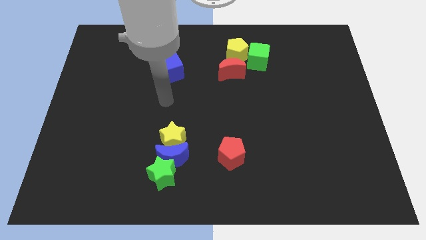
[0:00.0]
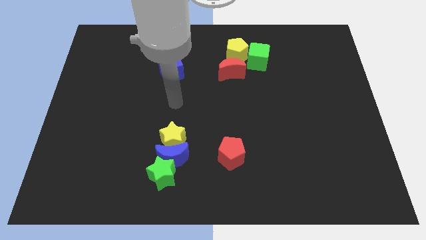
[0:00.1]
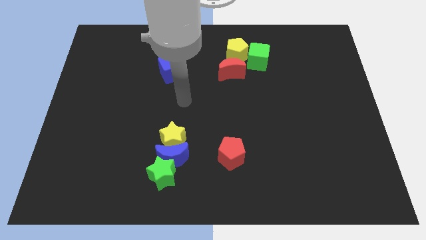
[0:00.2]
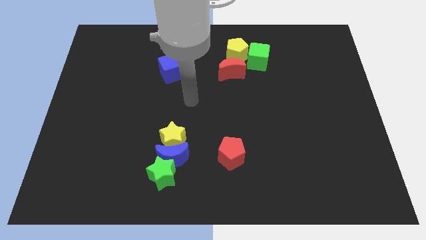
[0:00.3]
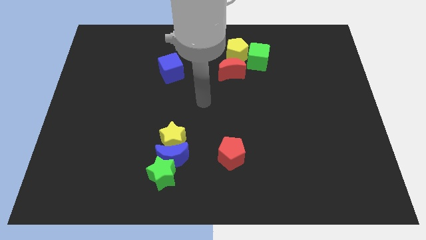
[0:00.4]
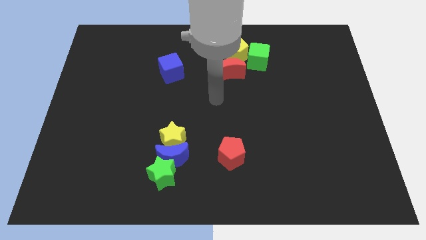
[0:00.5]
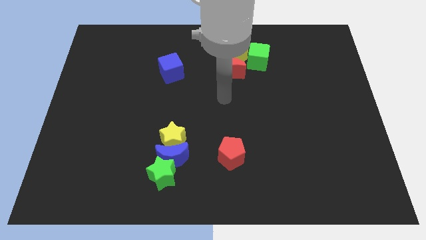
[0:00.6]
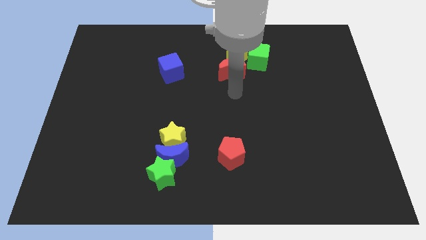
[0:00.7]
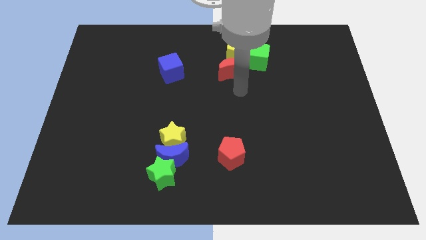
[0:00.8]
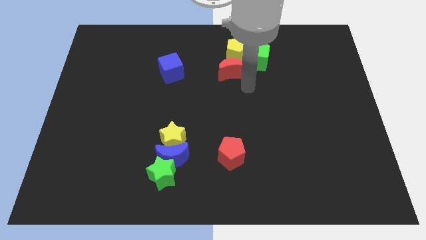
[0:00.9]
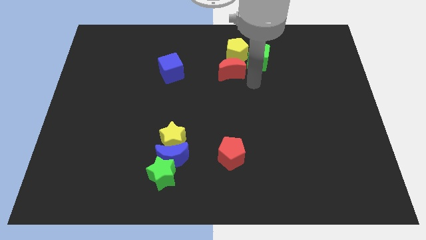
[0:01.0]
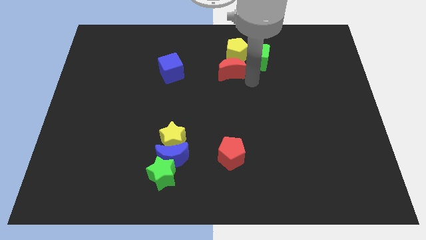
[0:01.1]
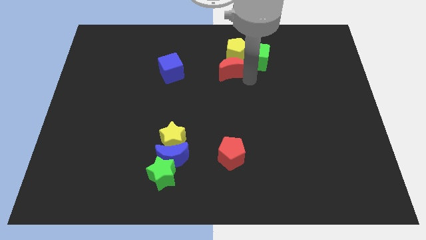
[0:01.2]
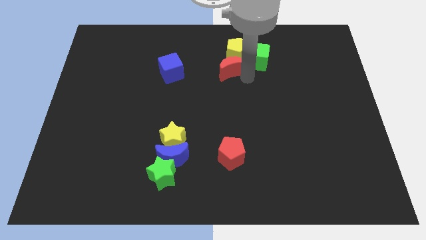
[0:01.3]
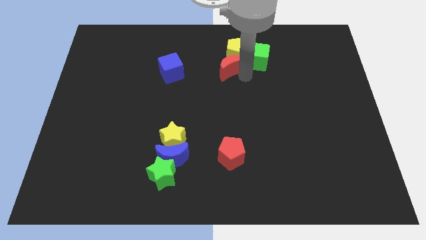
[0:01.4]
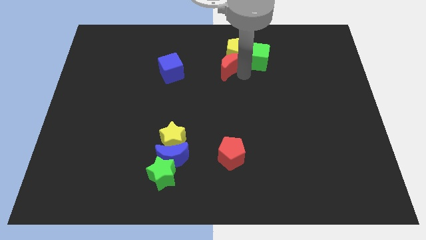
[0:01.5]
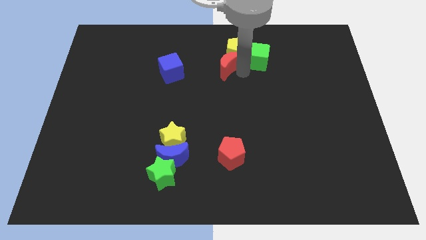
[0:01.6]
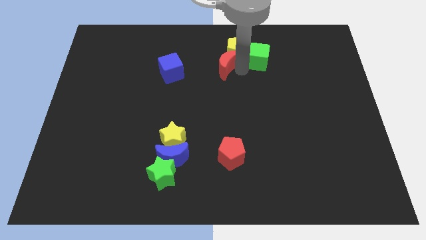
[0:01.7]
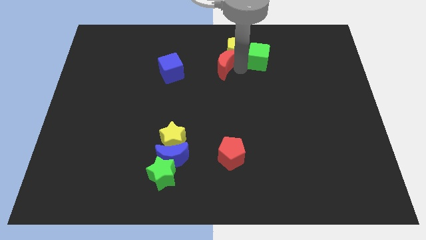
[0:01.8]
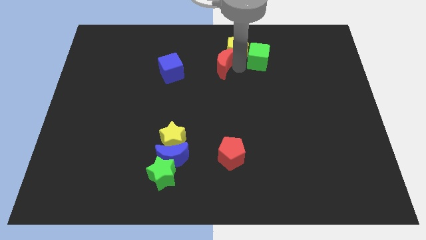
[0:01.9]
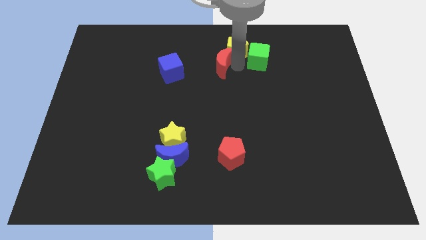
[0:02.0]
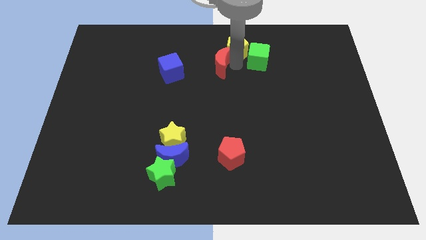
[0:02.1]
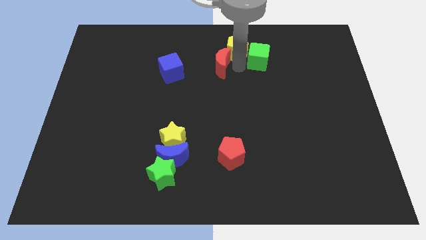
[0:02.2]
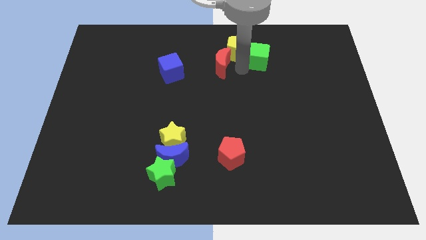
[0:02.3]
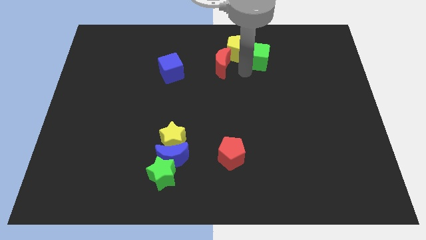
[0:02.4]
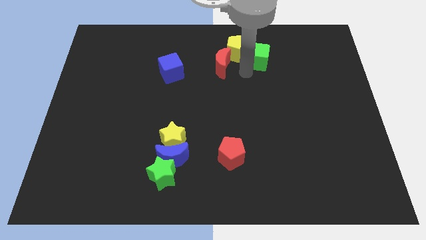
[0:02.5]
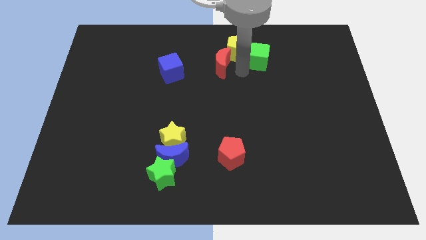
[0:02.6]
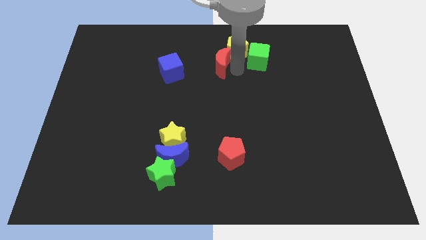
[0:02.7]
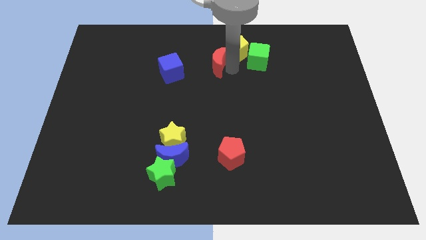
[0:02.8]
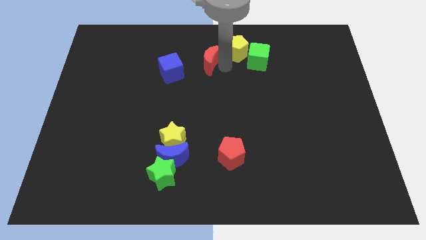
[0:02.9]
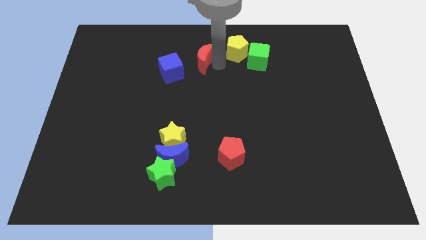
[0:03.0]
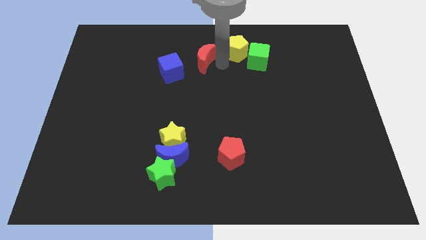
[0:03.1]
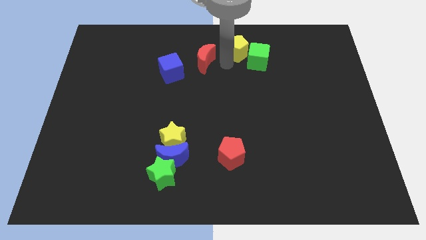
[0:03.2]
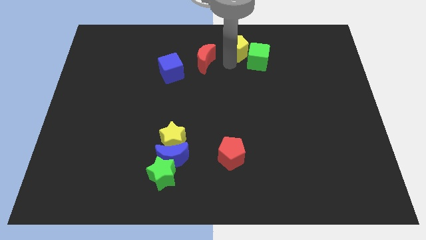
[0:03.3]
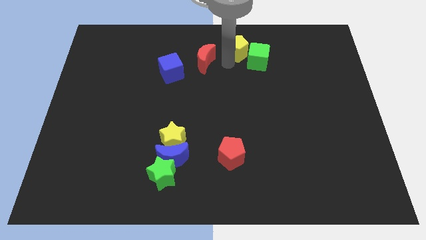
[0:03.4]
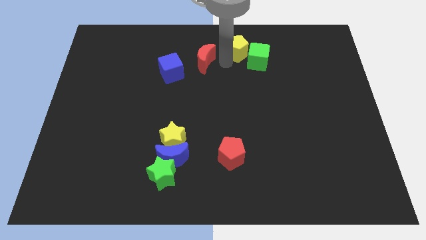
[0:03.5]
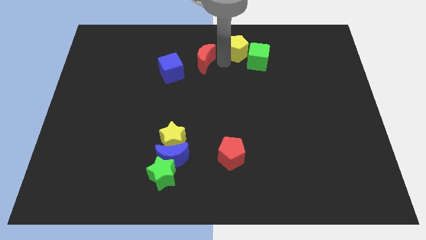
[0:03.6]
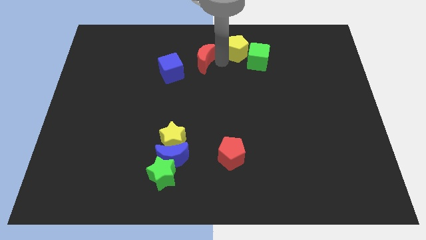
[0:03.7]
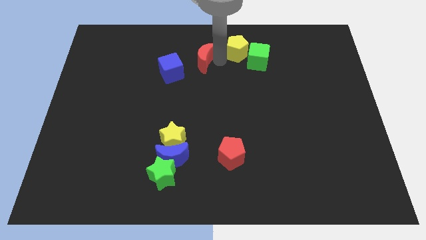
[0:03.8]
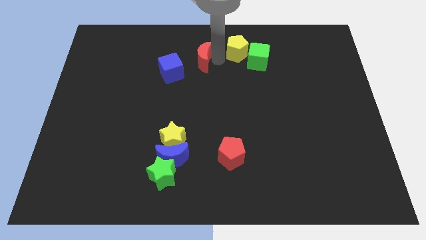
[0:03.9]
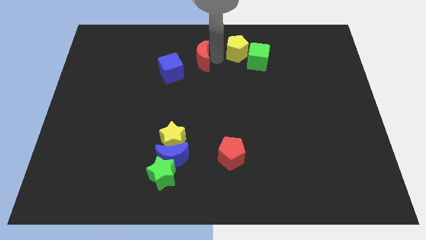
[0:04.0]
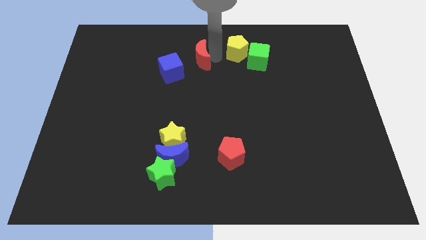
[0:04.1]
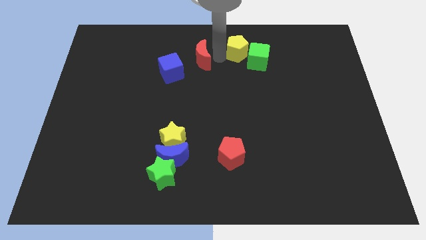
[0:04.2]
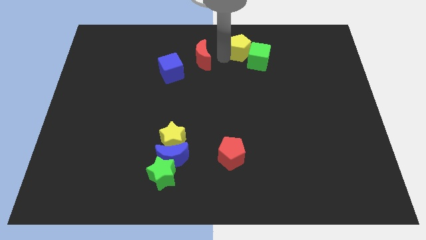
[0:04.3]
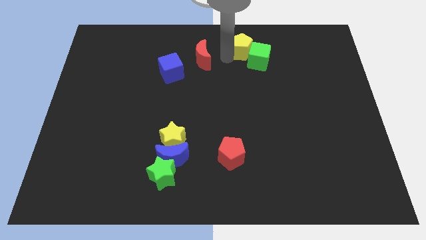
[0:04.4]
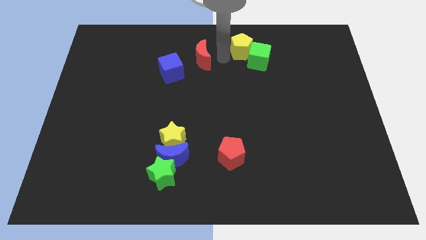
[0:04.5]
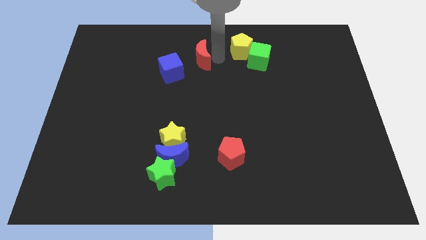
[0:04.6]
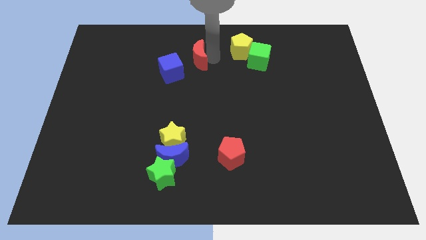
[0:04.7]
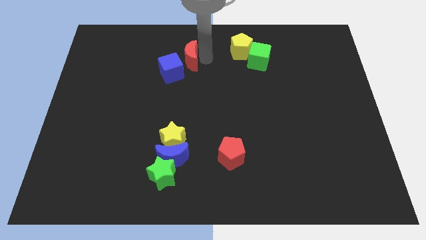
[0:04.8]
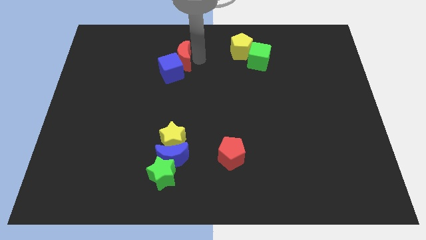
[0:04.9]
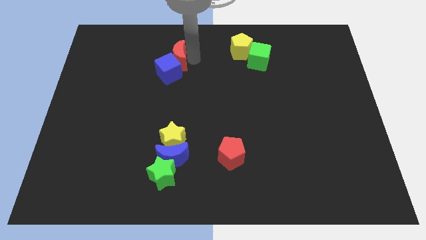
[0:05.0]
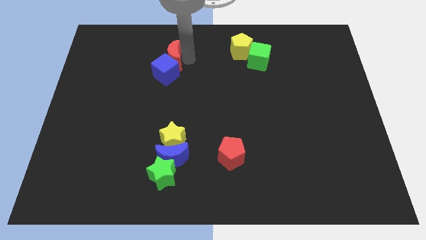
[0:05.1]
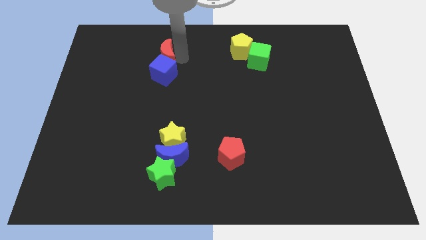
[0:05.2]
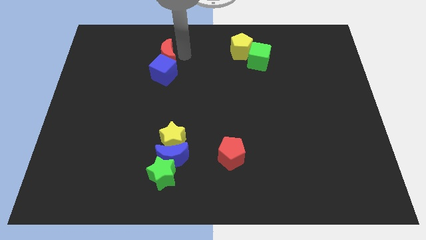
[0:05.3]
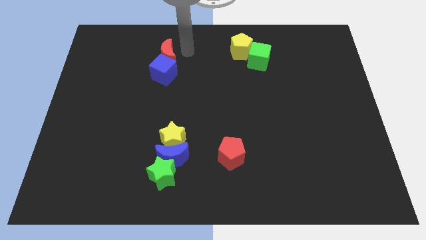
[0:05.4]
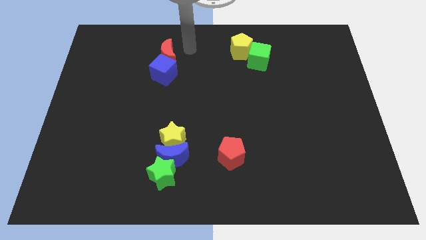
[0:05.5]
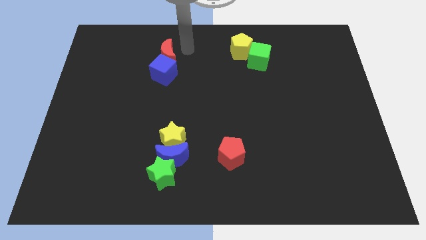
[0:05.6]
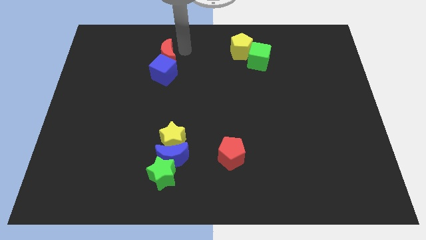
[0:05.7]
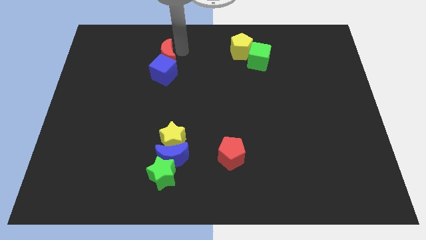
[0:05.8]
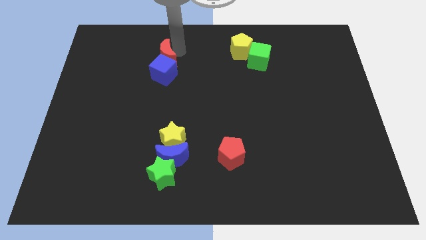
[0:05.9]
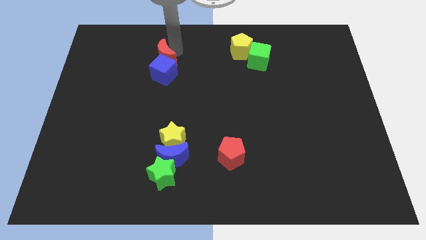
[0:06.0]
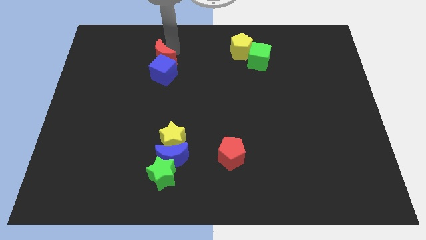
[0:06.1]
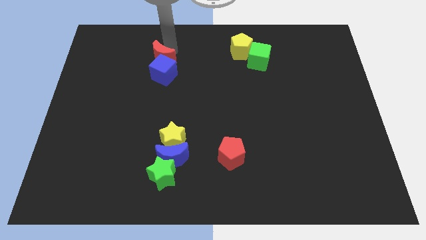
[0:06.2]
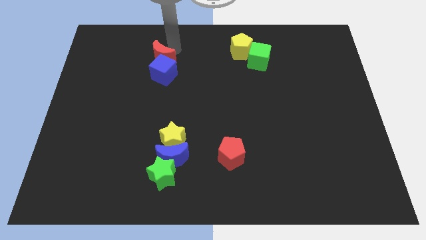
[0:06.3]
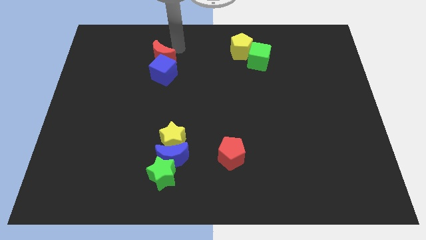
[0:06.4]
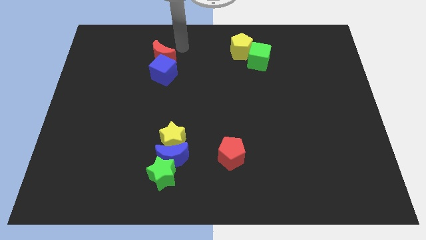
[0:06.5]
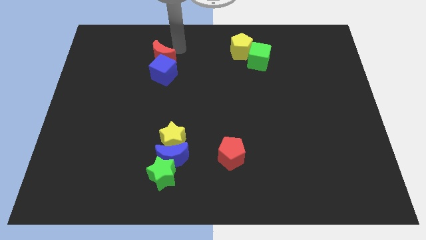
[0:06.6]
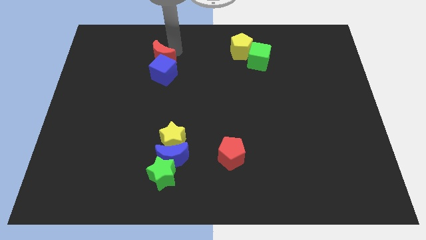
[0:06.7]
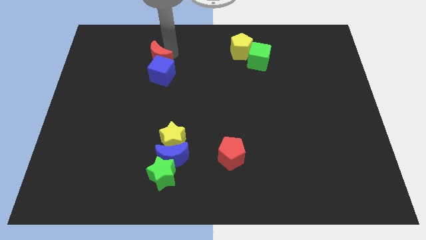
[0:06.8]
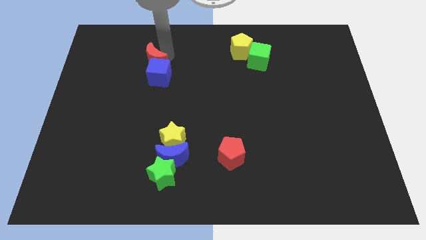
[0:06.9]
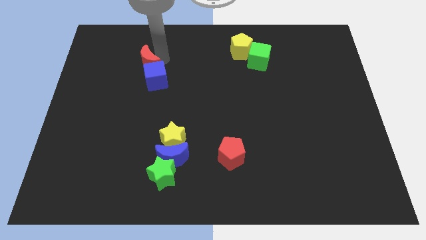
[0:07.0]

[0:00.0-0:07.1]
slide the red moon to the left

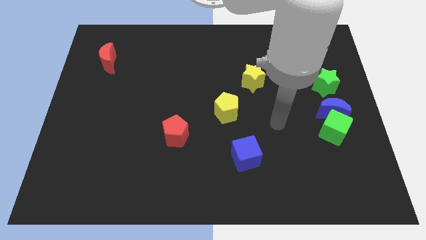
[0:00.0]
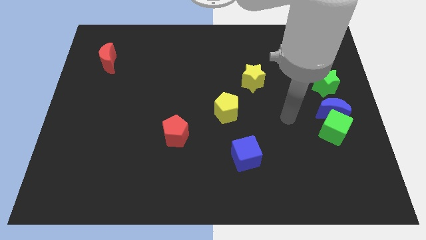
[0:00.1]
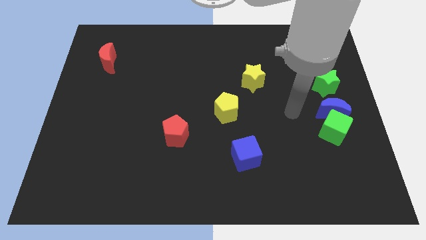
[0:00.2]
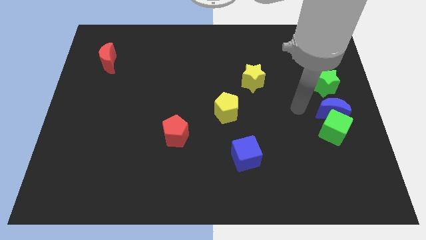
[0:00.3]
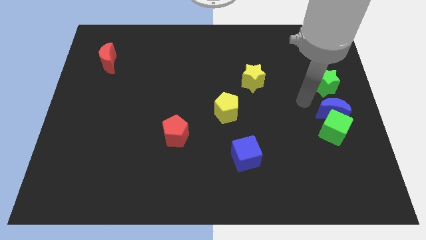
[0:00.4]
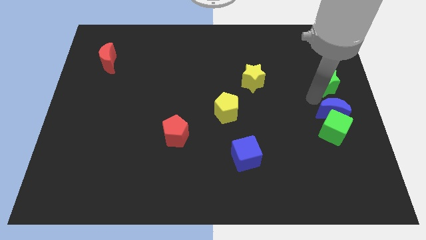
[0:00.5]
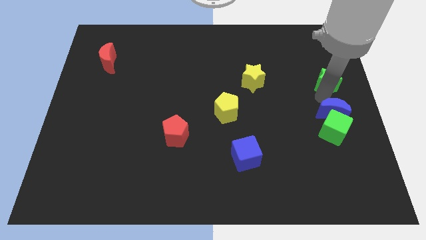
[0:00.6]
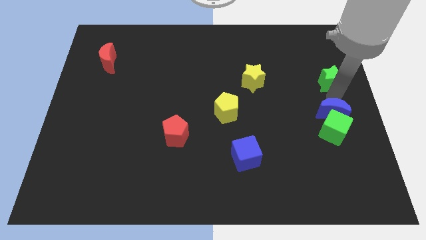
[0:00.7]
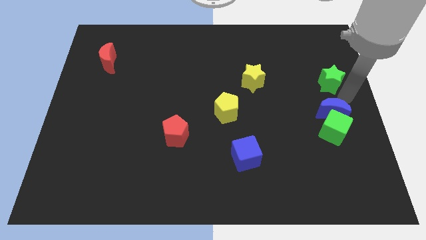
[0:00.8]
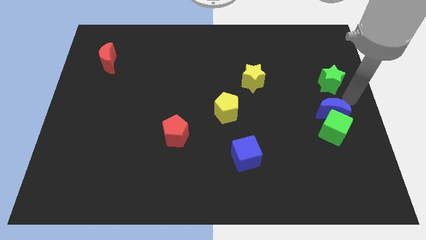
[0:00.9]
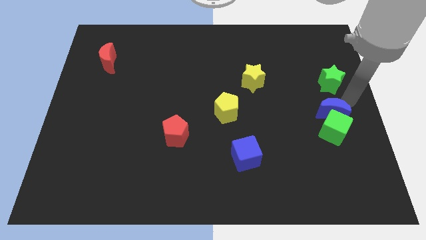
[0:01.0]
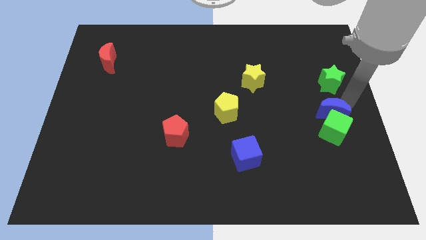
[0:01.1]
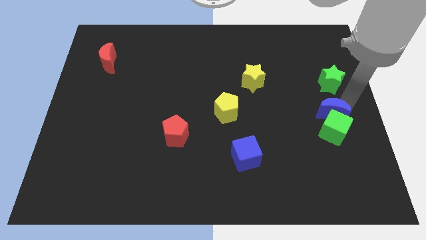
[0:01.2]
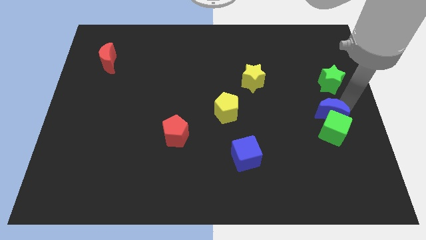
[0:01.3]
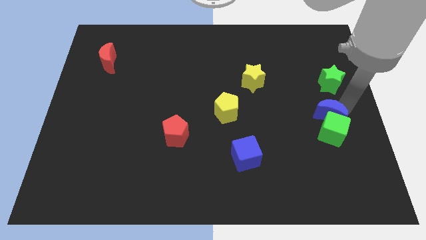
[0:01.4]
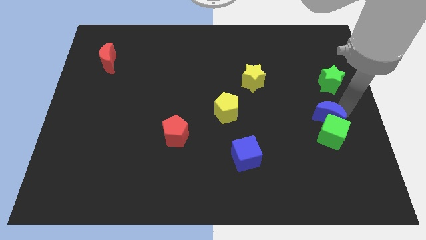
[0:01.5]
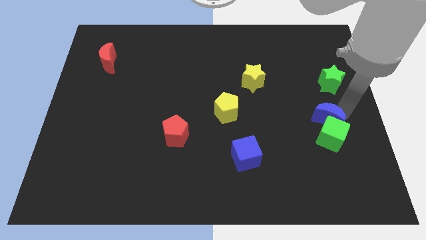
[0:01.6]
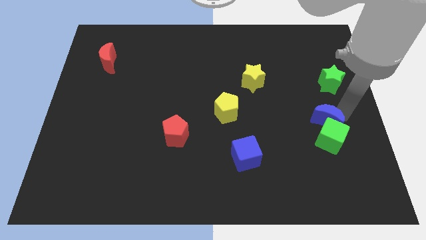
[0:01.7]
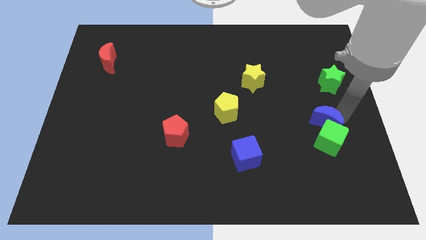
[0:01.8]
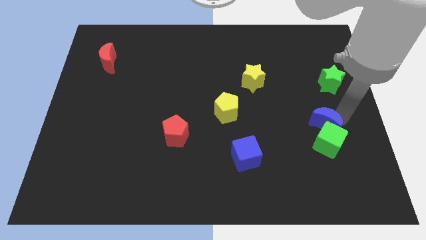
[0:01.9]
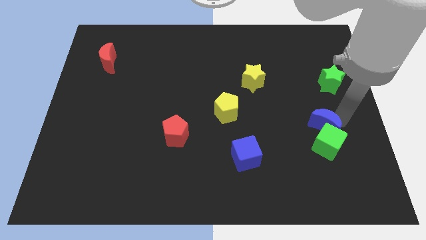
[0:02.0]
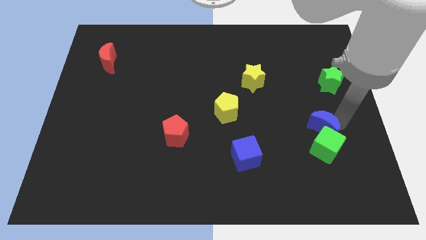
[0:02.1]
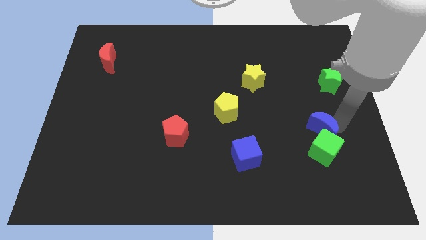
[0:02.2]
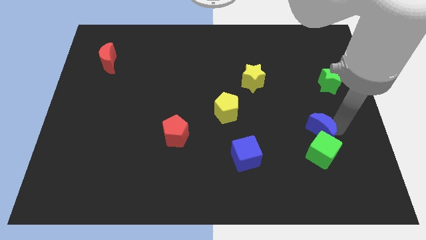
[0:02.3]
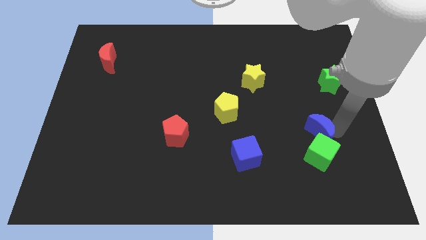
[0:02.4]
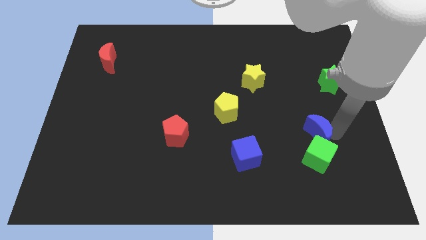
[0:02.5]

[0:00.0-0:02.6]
push the blue moon downwards and to the left a little bit
